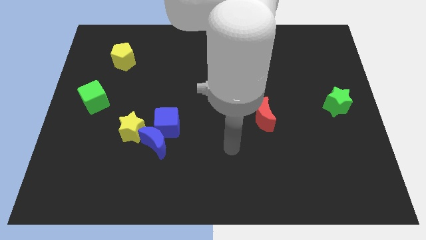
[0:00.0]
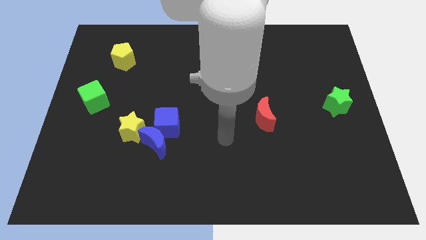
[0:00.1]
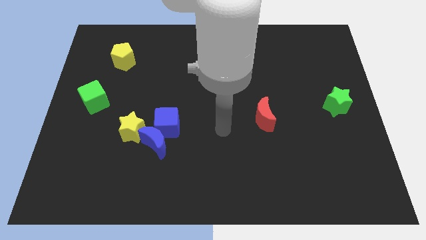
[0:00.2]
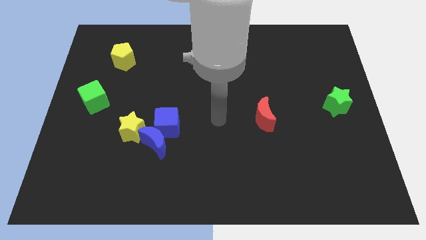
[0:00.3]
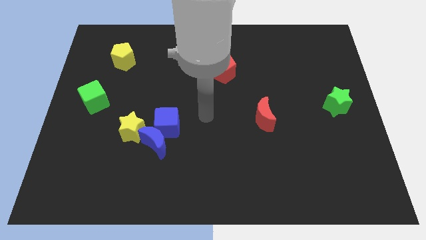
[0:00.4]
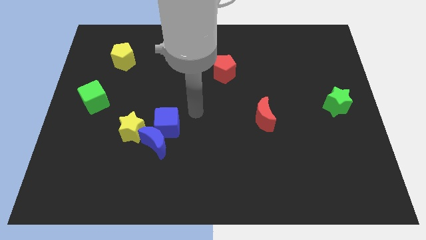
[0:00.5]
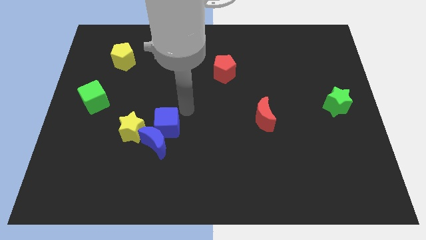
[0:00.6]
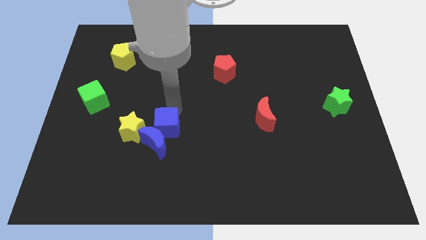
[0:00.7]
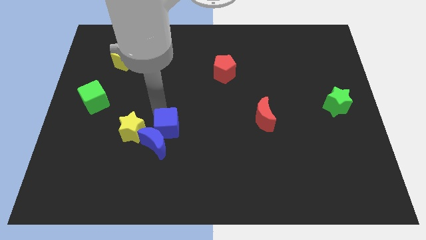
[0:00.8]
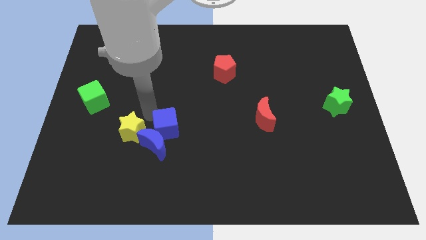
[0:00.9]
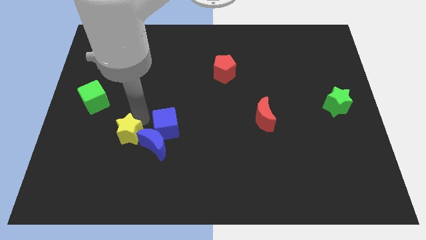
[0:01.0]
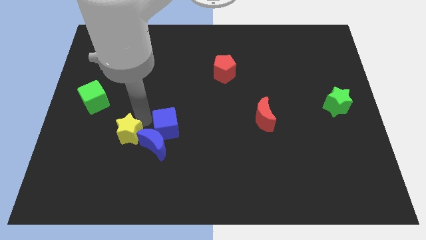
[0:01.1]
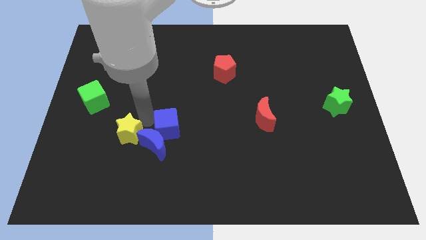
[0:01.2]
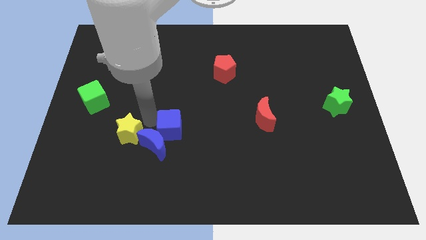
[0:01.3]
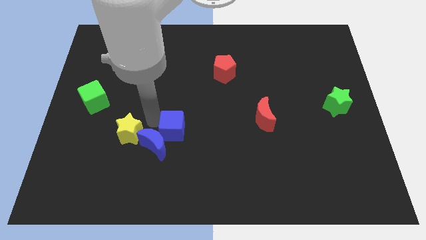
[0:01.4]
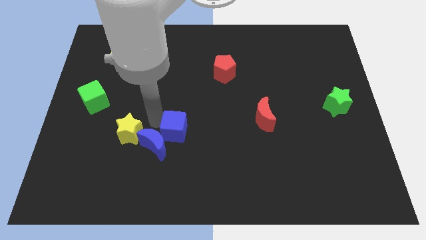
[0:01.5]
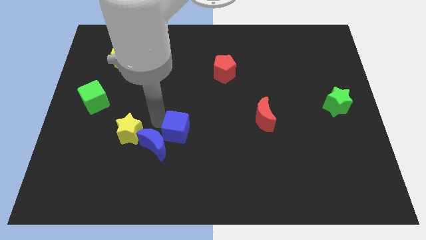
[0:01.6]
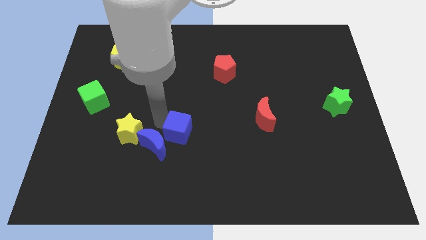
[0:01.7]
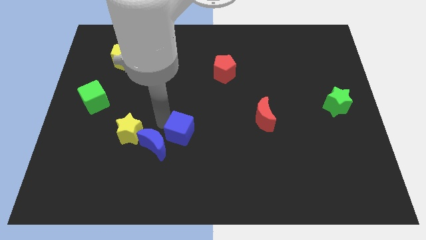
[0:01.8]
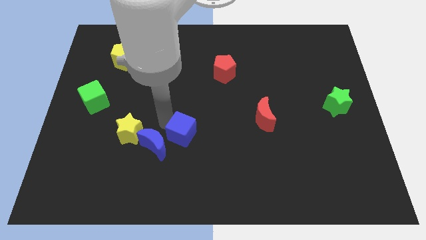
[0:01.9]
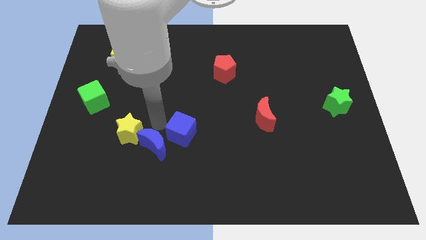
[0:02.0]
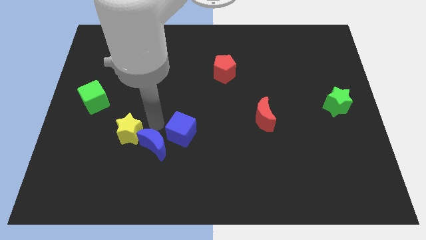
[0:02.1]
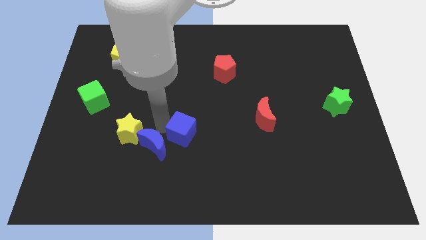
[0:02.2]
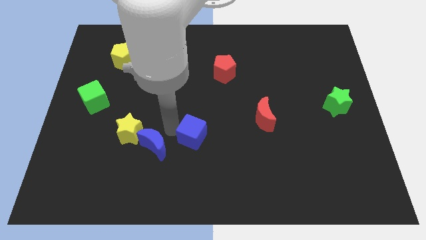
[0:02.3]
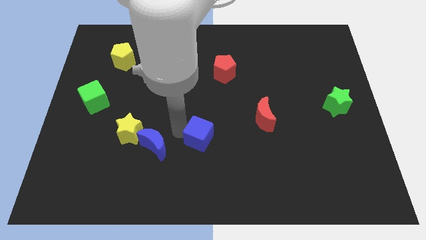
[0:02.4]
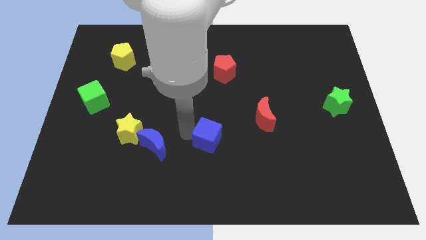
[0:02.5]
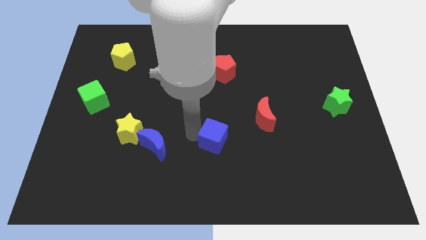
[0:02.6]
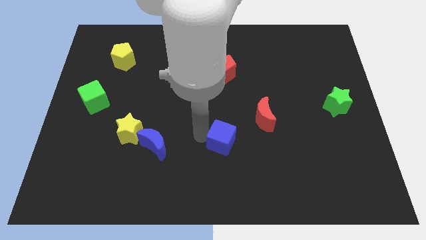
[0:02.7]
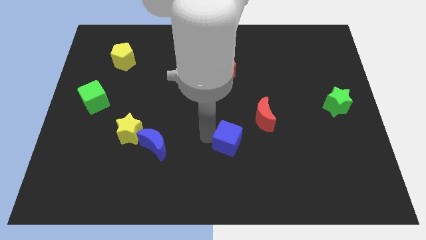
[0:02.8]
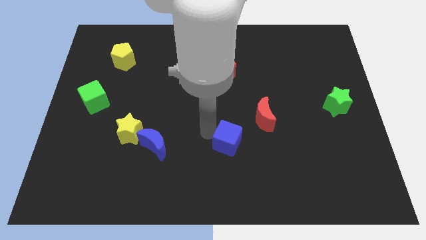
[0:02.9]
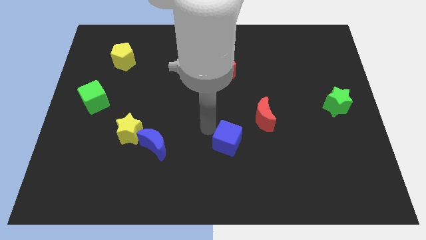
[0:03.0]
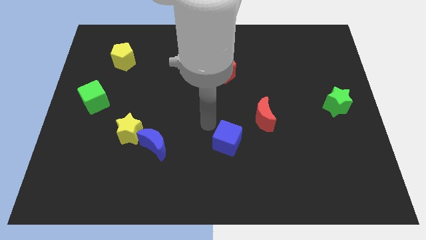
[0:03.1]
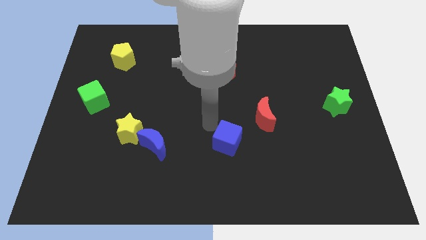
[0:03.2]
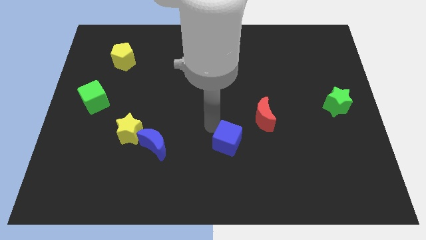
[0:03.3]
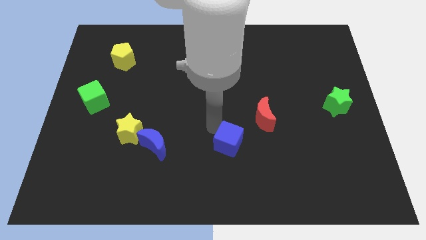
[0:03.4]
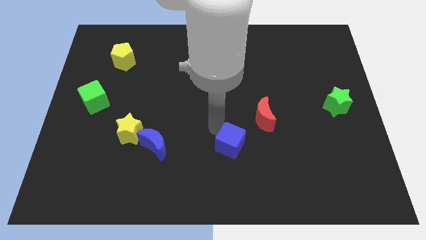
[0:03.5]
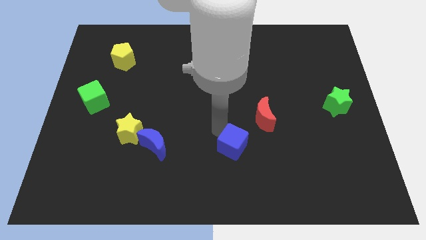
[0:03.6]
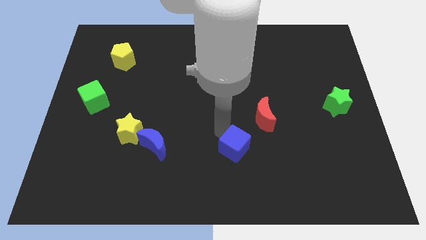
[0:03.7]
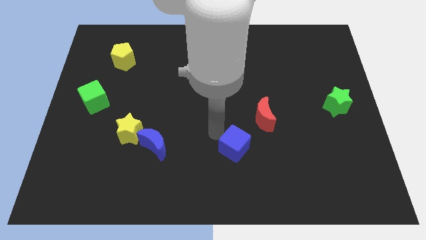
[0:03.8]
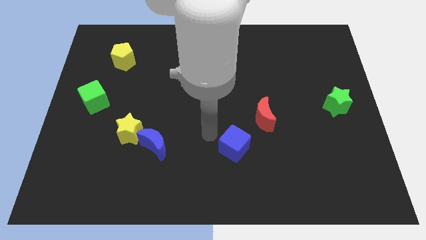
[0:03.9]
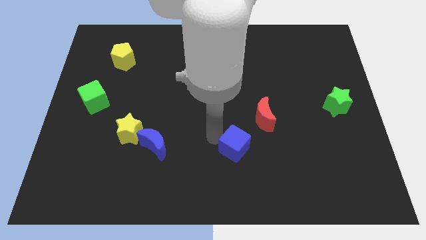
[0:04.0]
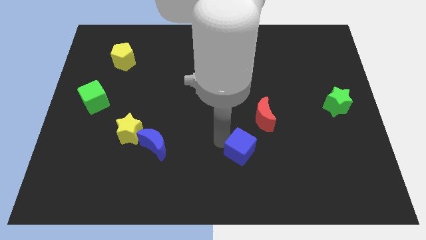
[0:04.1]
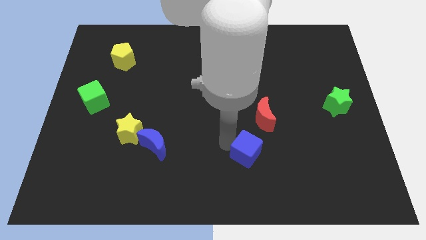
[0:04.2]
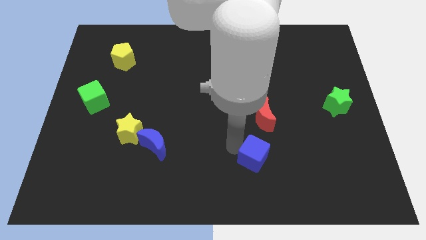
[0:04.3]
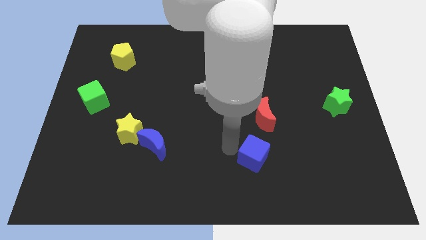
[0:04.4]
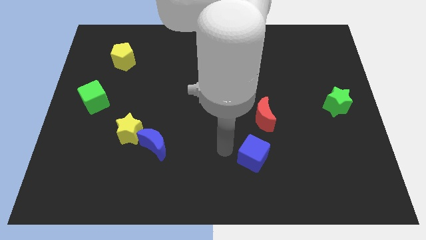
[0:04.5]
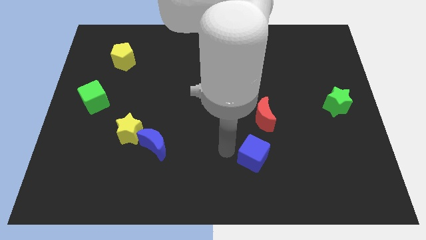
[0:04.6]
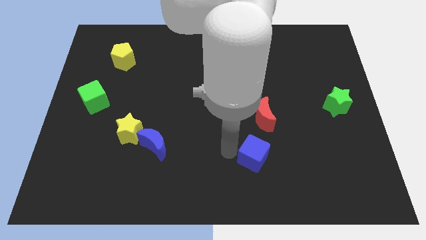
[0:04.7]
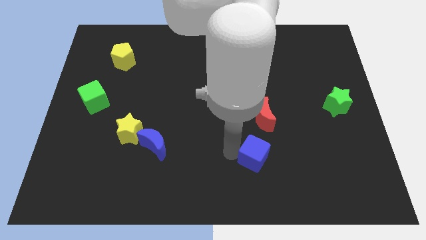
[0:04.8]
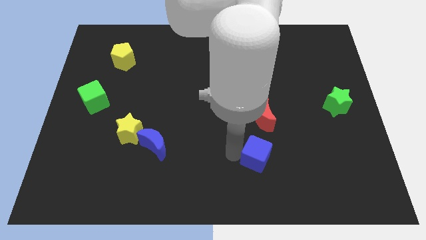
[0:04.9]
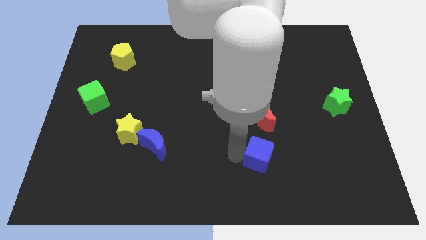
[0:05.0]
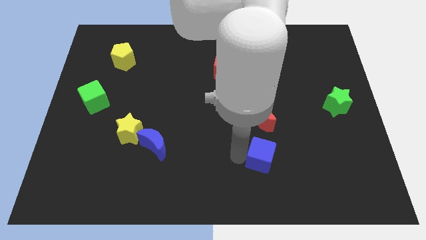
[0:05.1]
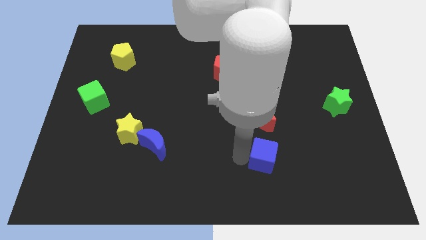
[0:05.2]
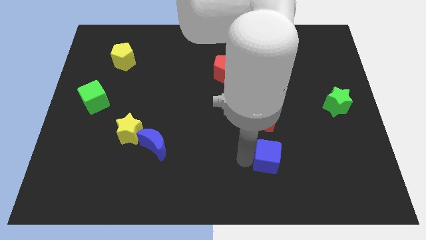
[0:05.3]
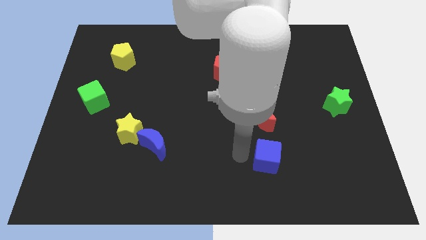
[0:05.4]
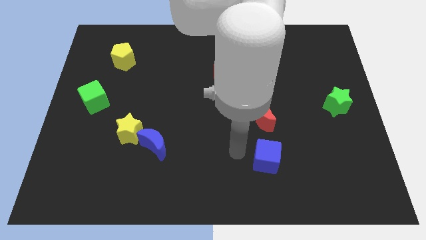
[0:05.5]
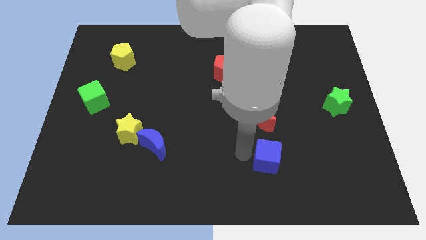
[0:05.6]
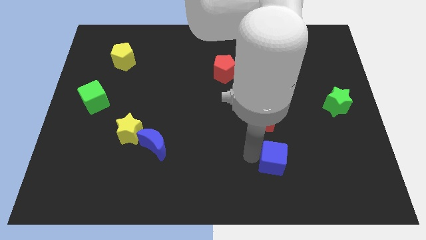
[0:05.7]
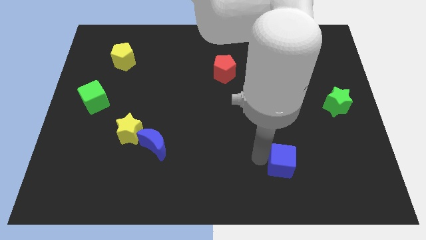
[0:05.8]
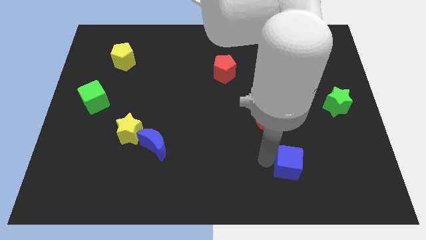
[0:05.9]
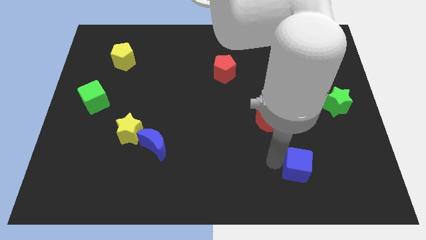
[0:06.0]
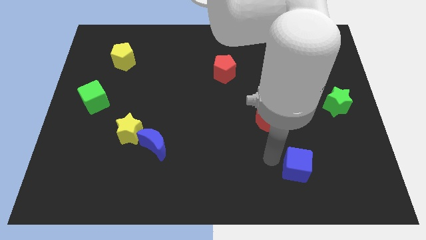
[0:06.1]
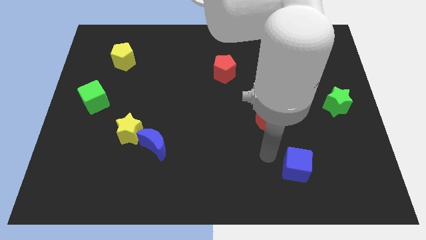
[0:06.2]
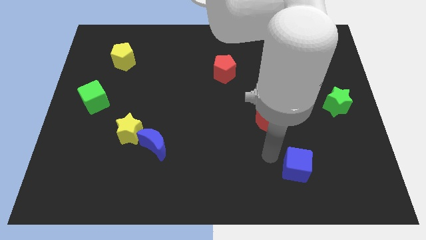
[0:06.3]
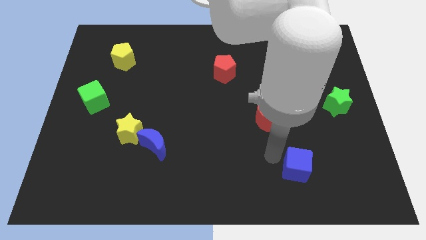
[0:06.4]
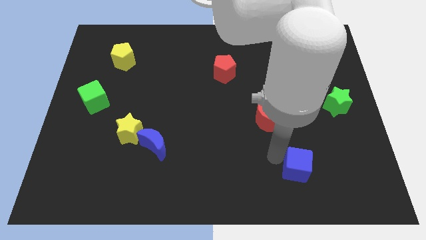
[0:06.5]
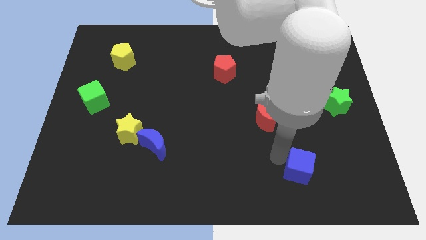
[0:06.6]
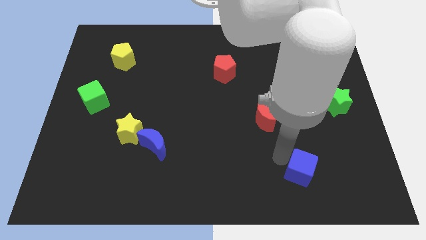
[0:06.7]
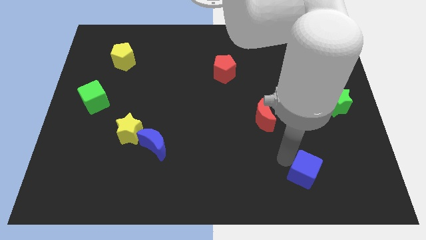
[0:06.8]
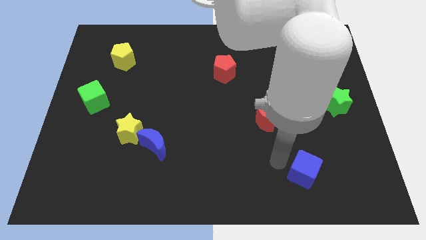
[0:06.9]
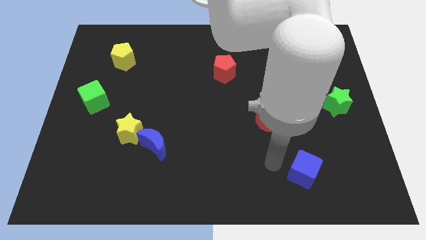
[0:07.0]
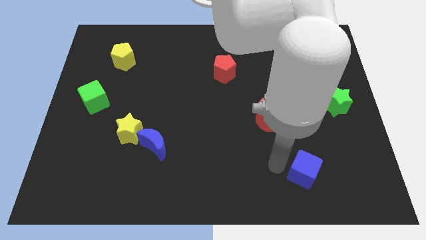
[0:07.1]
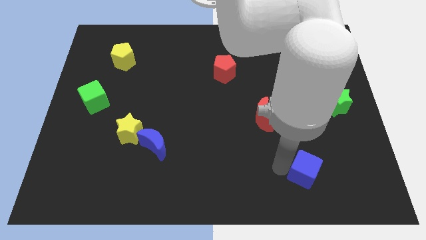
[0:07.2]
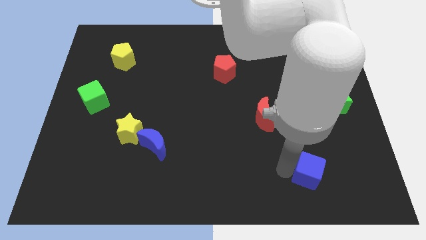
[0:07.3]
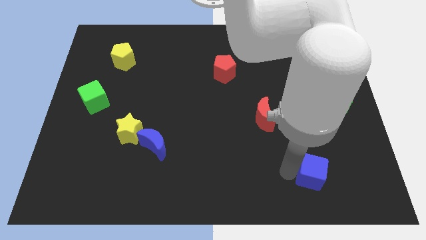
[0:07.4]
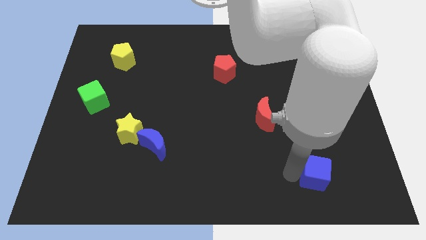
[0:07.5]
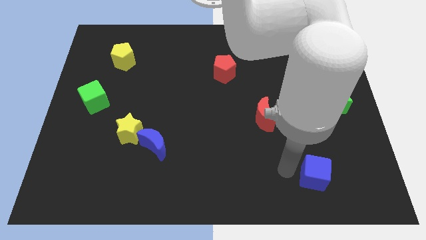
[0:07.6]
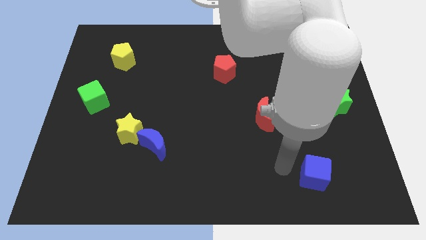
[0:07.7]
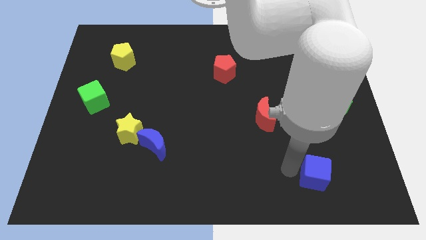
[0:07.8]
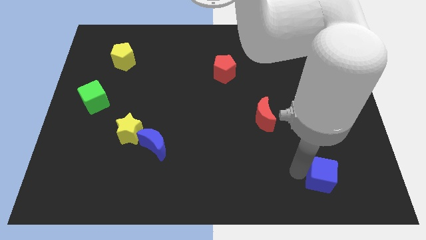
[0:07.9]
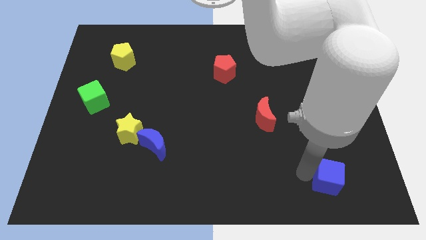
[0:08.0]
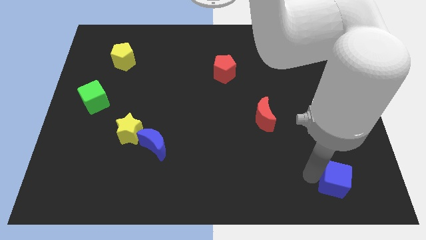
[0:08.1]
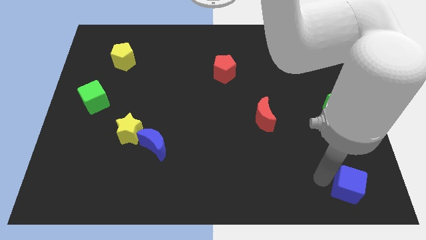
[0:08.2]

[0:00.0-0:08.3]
push the blue cube to the bottom right corner
